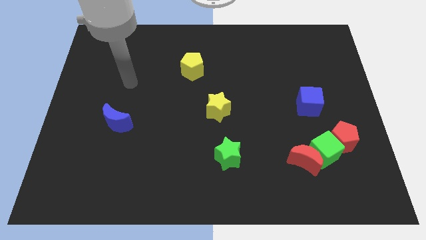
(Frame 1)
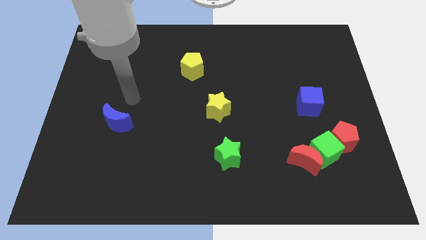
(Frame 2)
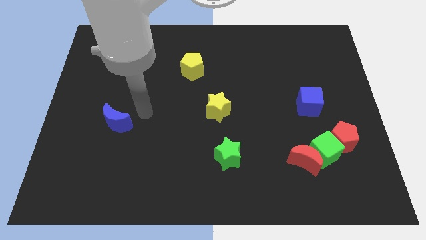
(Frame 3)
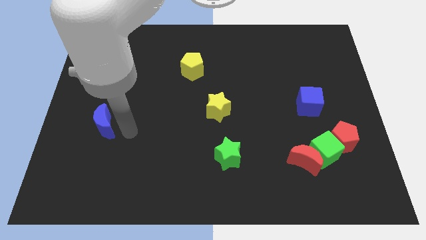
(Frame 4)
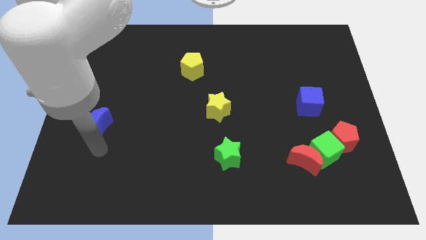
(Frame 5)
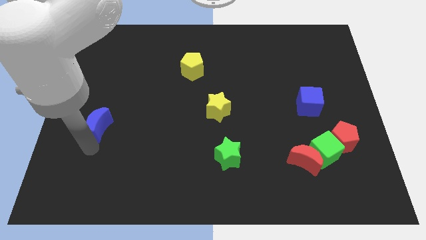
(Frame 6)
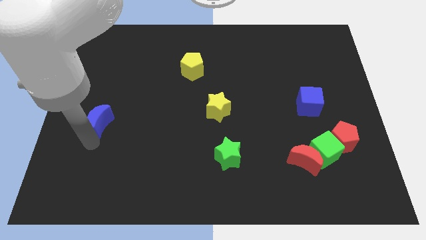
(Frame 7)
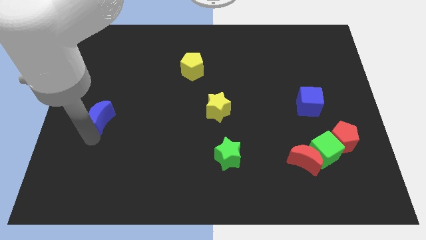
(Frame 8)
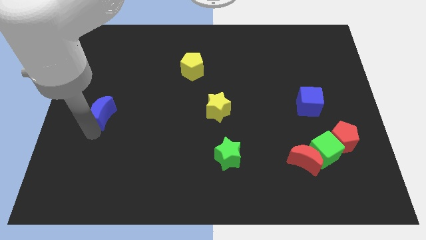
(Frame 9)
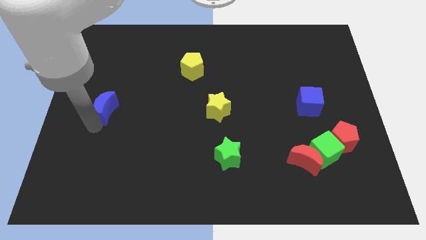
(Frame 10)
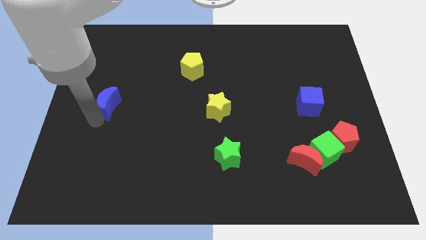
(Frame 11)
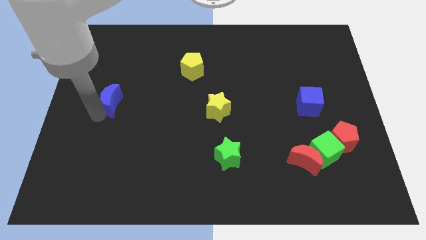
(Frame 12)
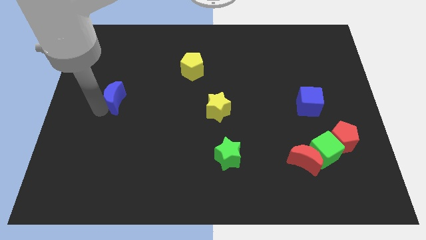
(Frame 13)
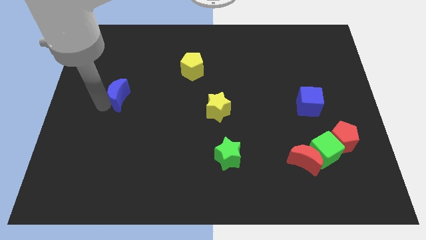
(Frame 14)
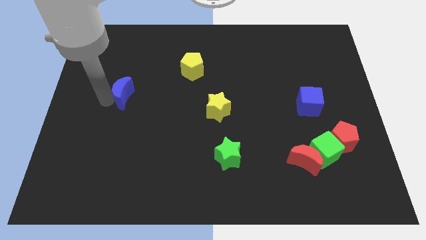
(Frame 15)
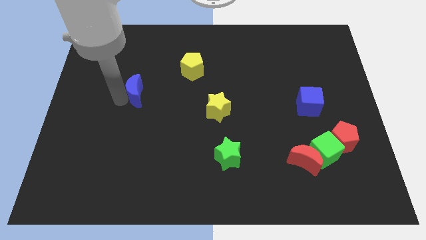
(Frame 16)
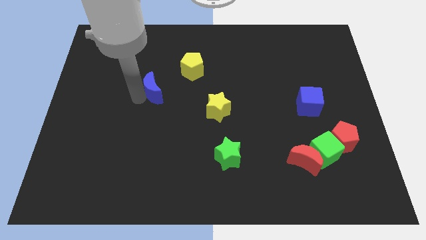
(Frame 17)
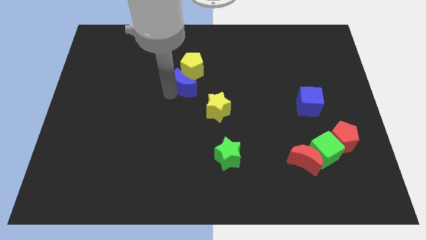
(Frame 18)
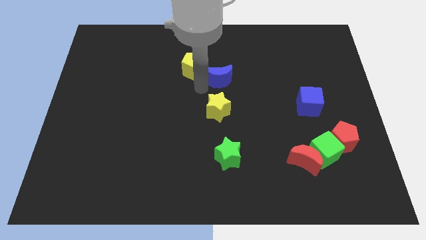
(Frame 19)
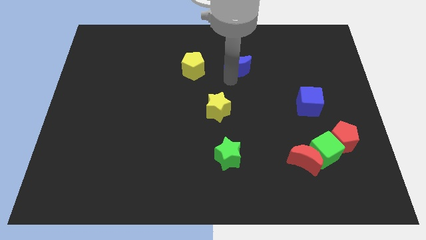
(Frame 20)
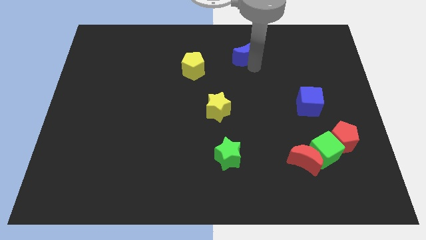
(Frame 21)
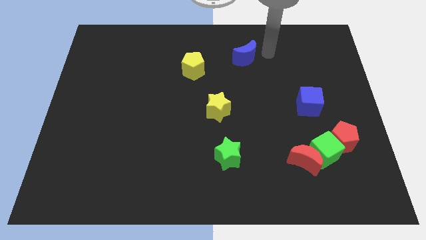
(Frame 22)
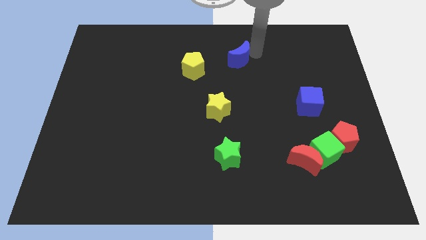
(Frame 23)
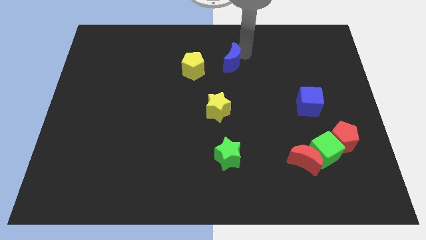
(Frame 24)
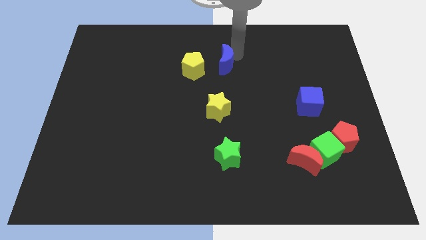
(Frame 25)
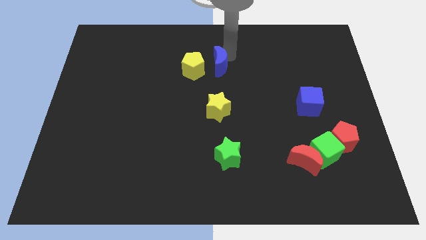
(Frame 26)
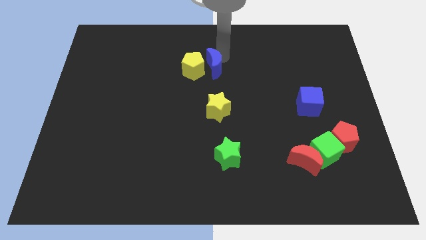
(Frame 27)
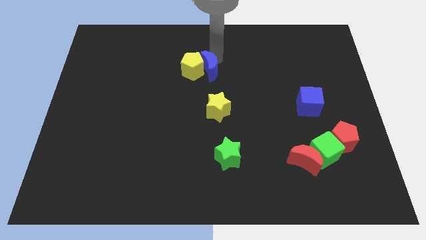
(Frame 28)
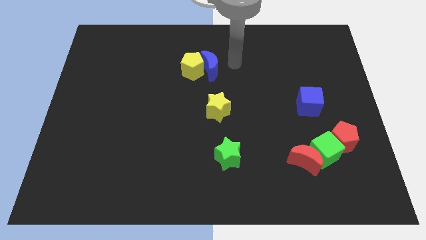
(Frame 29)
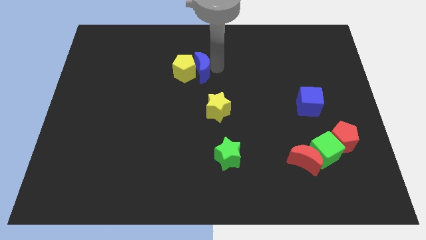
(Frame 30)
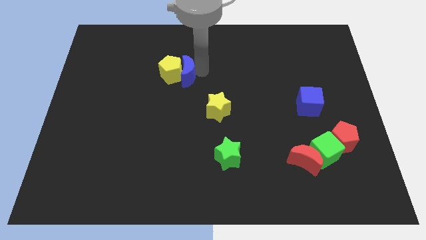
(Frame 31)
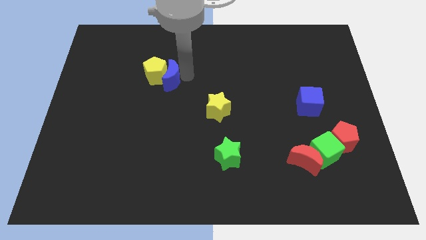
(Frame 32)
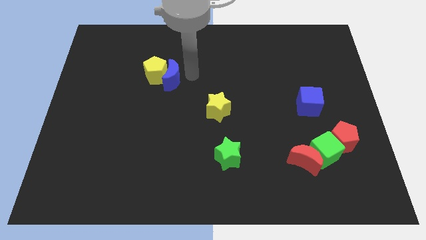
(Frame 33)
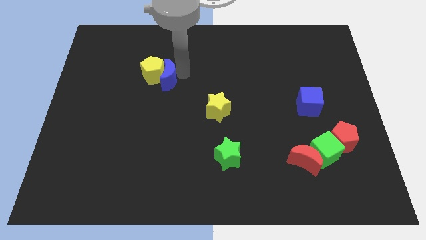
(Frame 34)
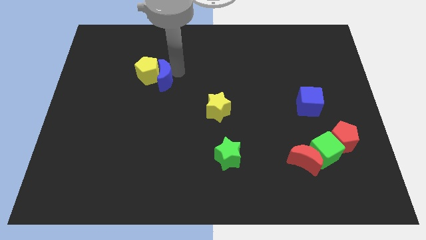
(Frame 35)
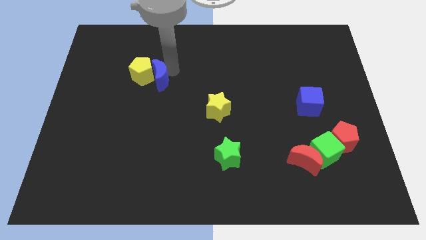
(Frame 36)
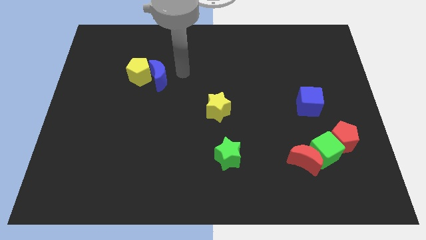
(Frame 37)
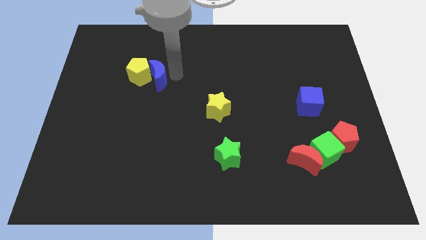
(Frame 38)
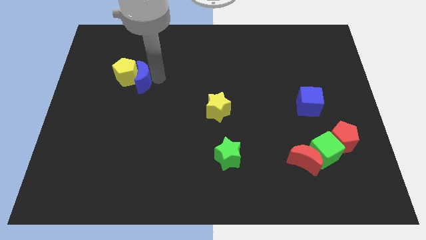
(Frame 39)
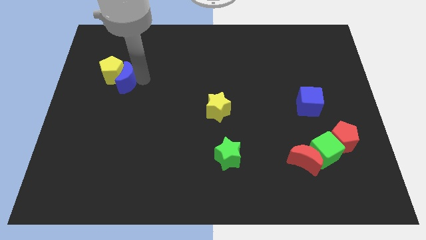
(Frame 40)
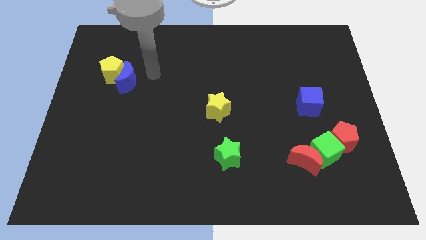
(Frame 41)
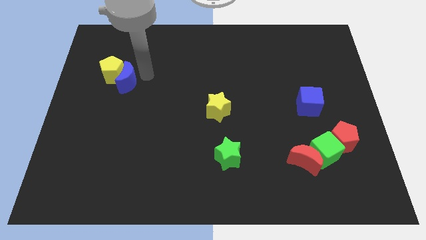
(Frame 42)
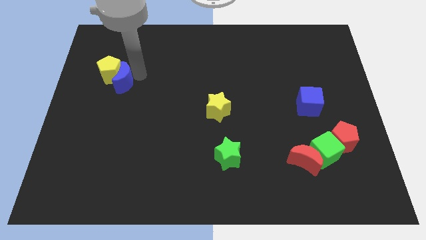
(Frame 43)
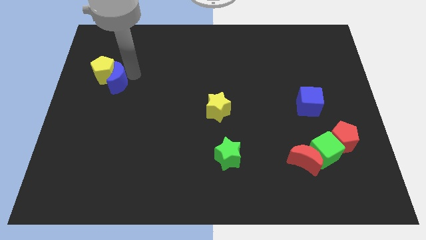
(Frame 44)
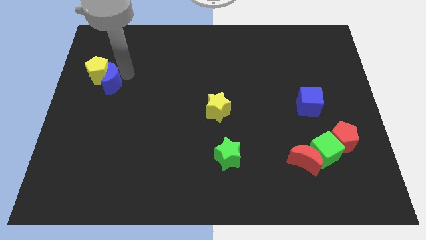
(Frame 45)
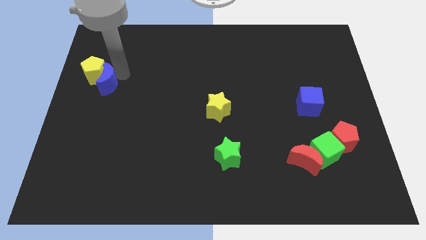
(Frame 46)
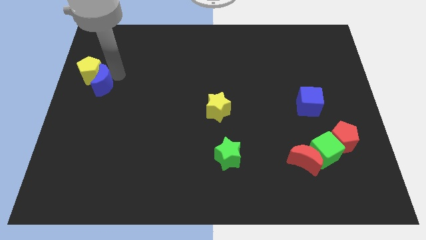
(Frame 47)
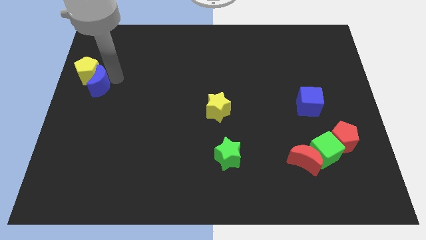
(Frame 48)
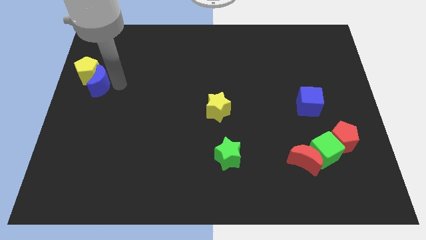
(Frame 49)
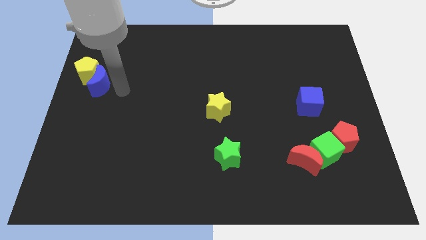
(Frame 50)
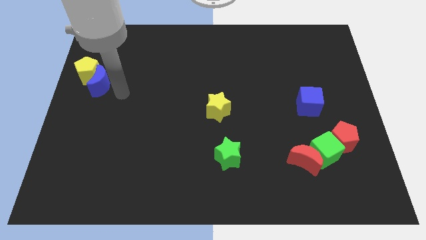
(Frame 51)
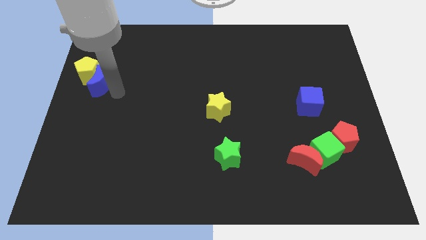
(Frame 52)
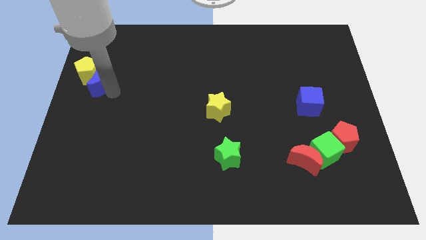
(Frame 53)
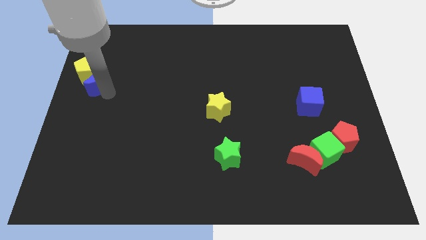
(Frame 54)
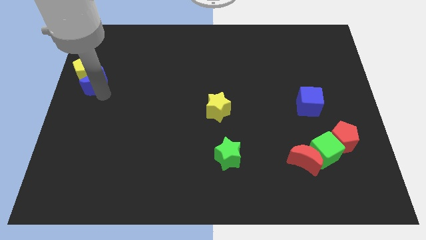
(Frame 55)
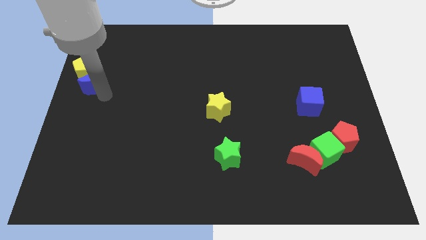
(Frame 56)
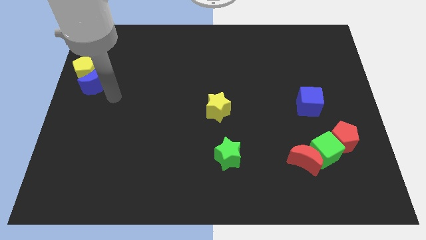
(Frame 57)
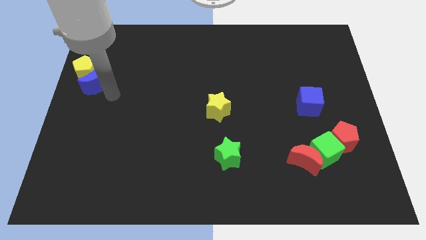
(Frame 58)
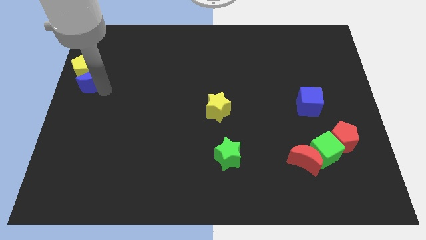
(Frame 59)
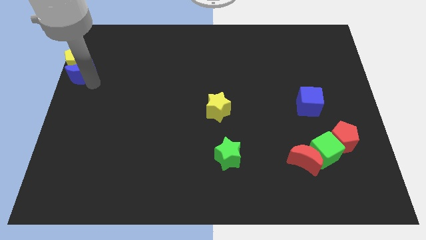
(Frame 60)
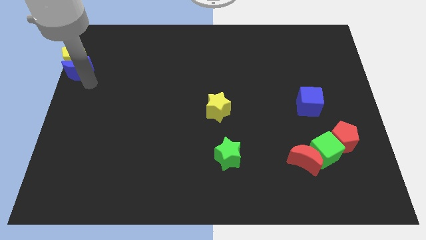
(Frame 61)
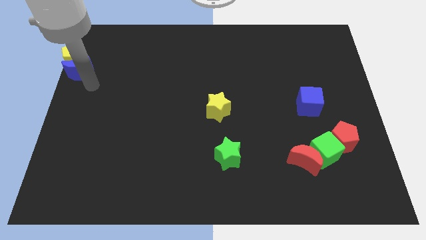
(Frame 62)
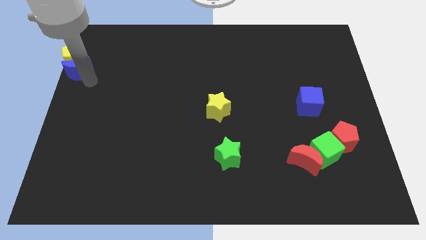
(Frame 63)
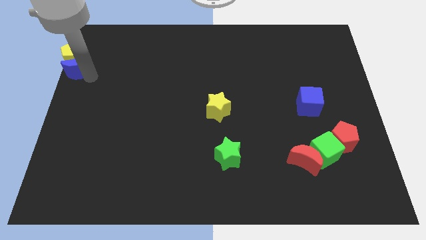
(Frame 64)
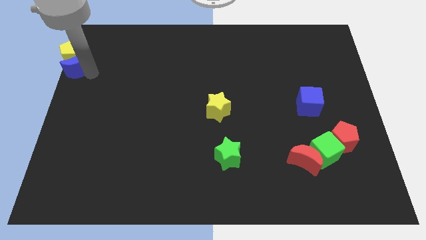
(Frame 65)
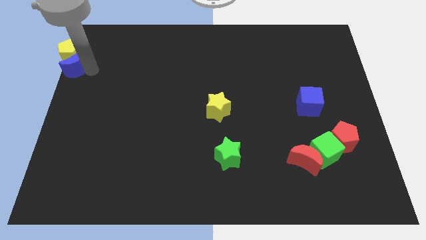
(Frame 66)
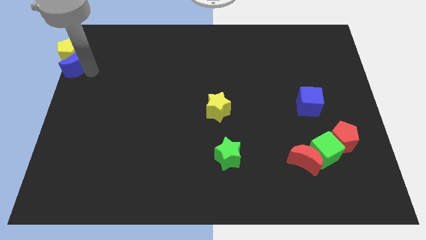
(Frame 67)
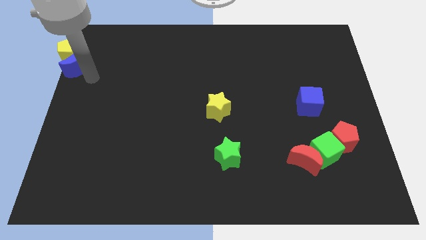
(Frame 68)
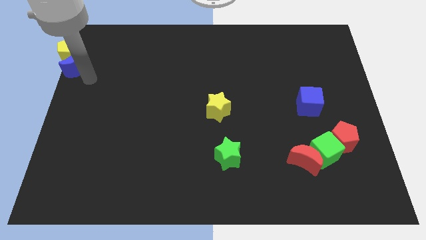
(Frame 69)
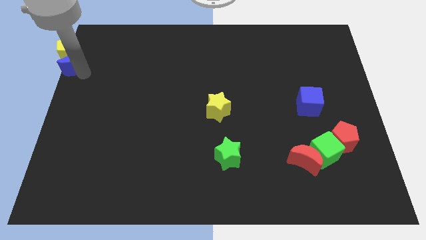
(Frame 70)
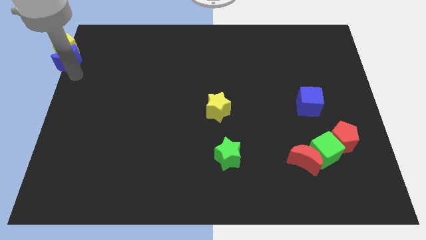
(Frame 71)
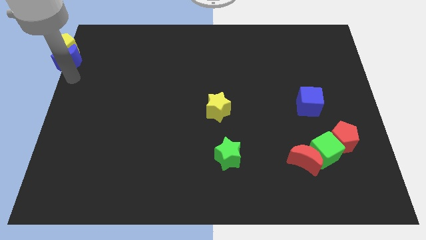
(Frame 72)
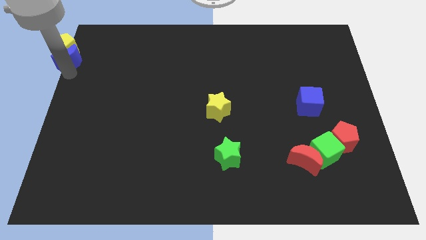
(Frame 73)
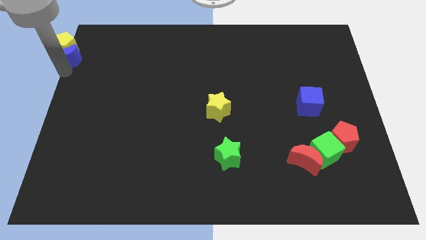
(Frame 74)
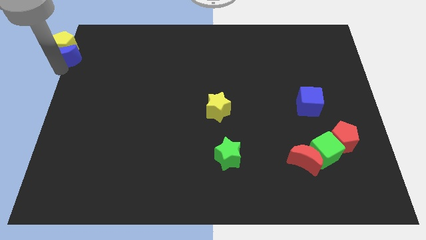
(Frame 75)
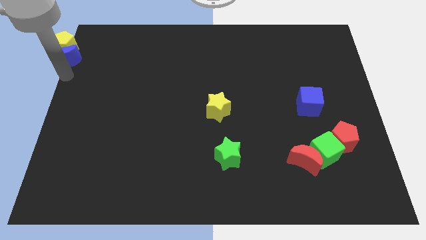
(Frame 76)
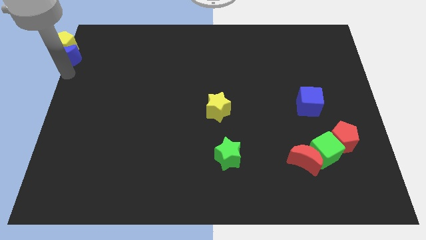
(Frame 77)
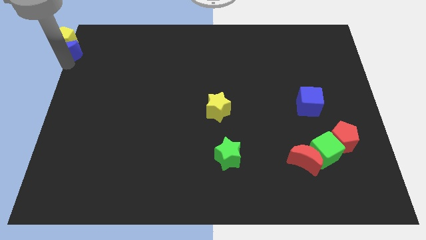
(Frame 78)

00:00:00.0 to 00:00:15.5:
move the blue moon to the upper left corner

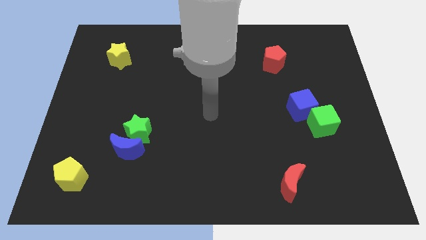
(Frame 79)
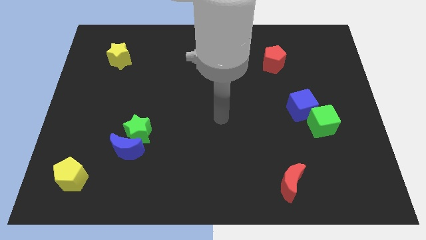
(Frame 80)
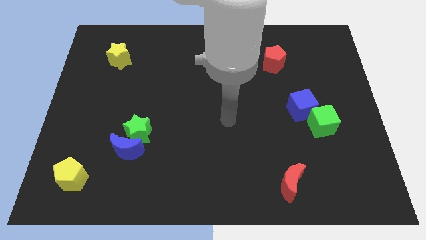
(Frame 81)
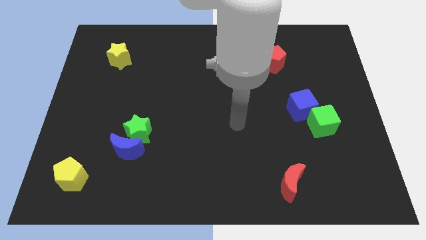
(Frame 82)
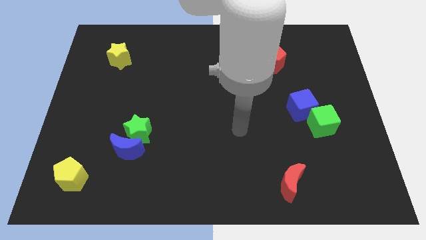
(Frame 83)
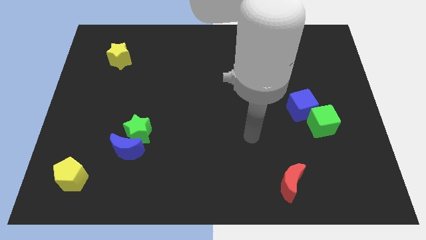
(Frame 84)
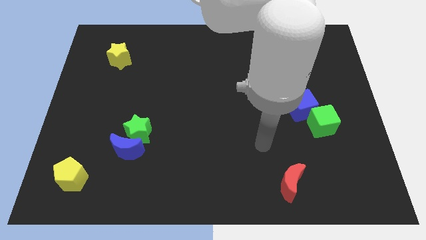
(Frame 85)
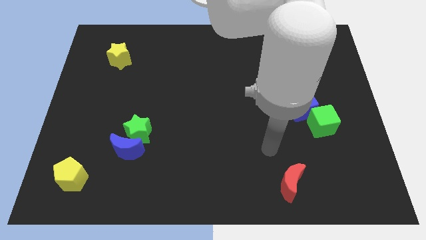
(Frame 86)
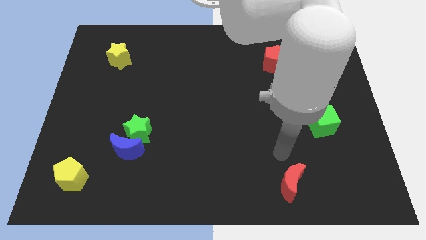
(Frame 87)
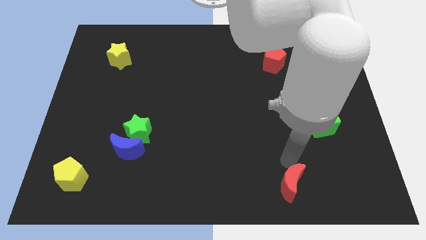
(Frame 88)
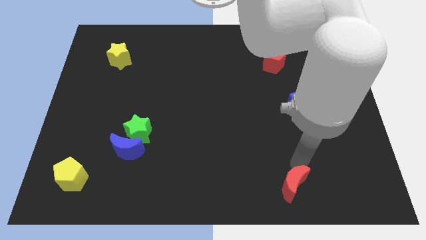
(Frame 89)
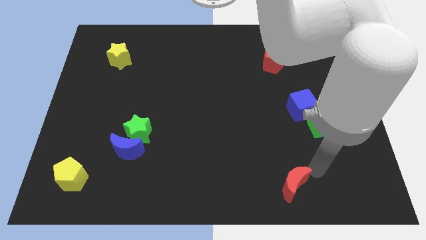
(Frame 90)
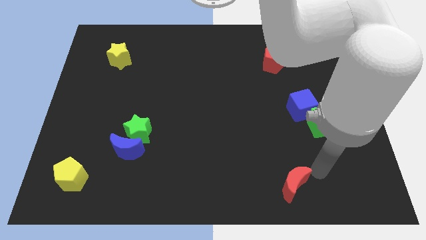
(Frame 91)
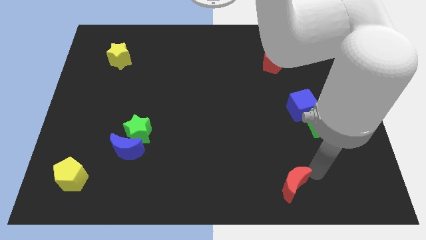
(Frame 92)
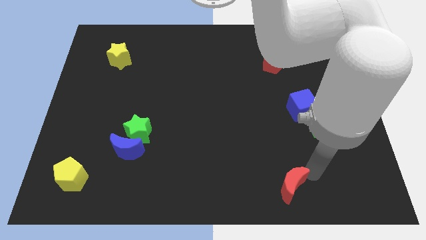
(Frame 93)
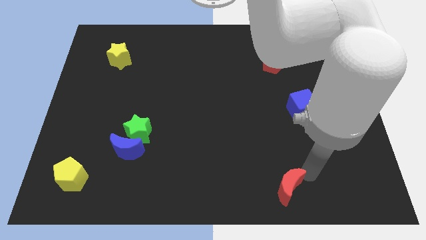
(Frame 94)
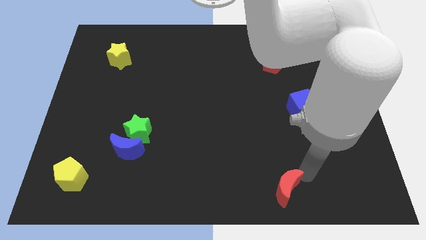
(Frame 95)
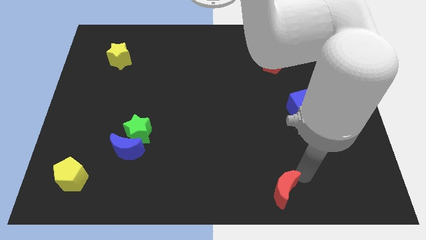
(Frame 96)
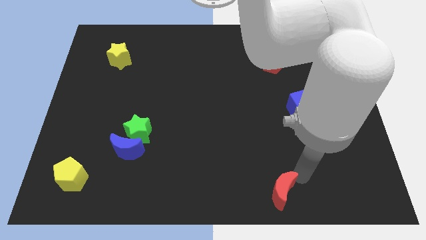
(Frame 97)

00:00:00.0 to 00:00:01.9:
push the red moon to the bottom side
